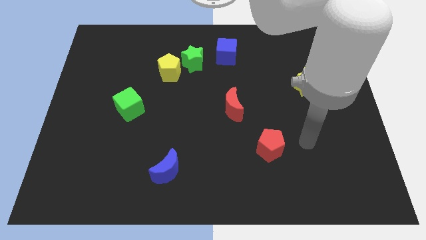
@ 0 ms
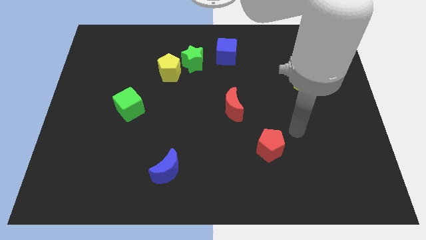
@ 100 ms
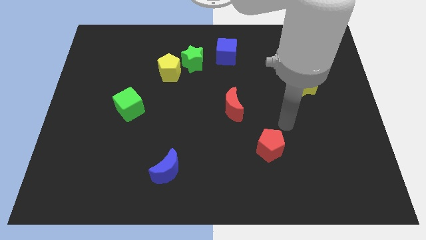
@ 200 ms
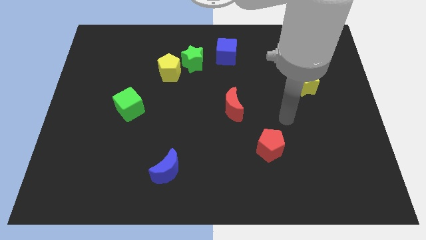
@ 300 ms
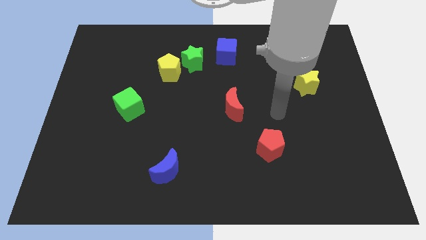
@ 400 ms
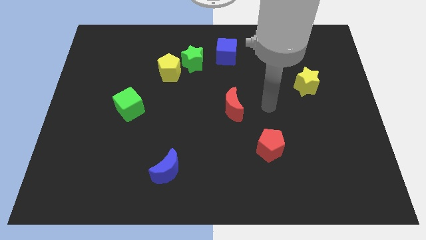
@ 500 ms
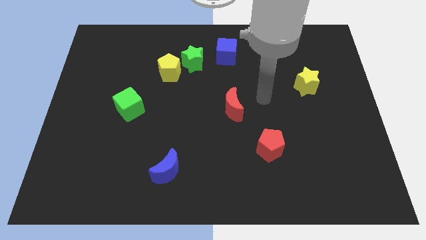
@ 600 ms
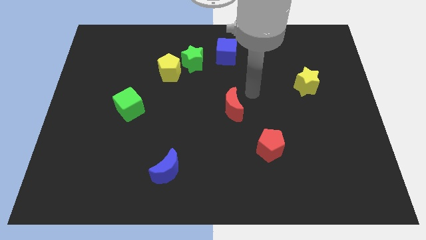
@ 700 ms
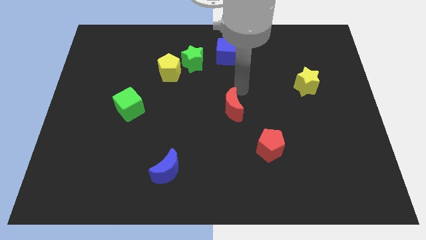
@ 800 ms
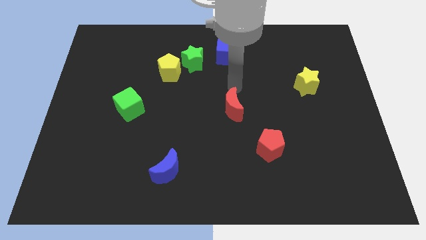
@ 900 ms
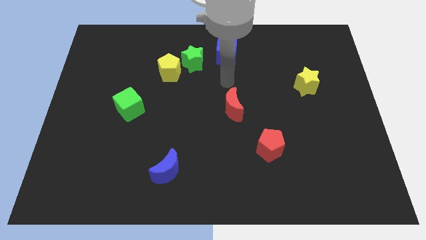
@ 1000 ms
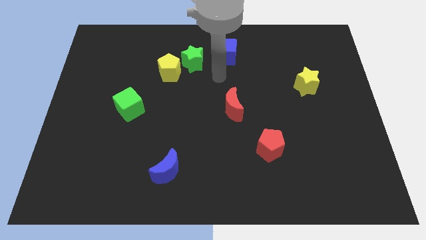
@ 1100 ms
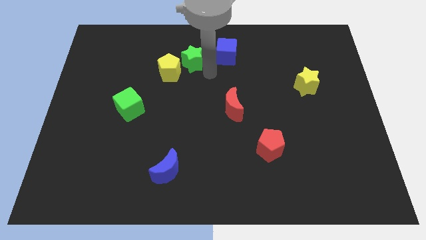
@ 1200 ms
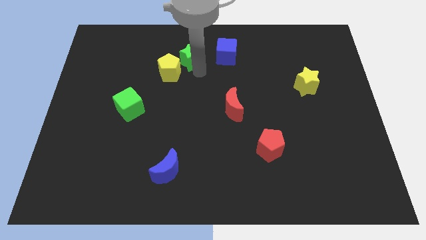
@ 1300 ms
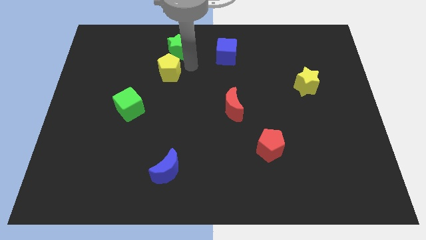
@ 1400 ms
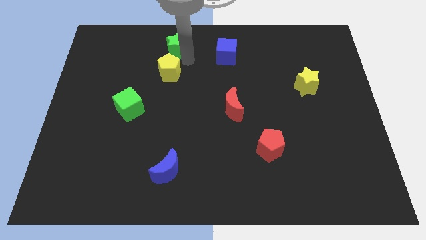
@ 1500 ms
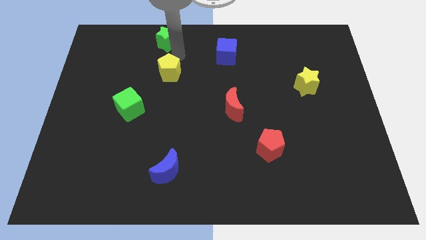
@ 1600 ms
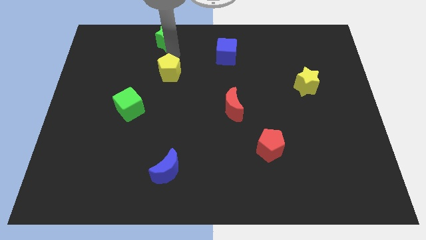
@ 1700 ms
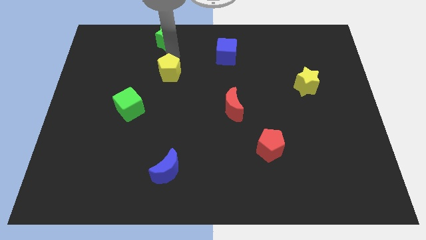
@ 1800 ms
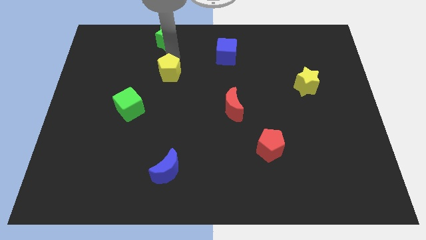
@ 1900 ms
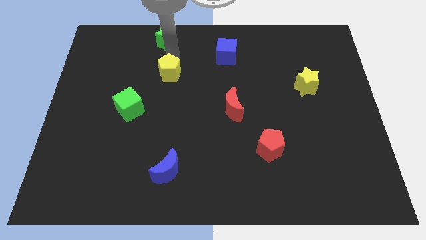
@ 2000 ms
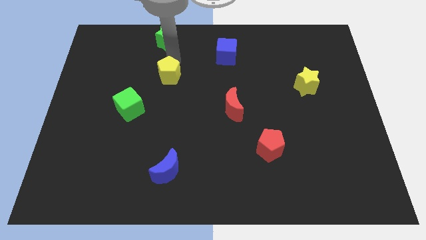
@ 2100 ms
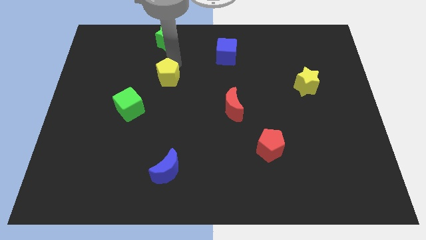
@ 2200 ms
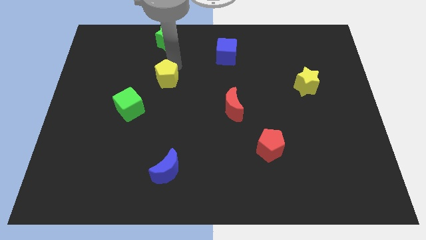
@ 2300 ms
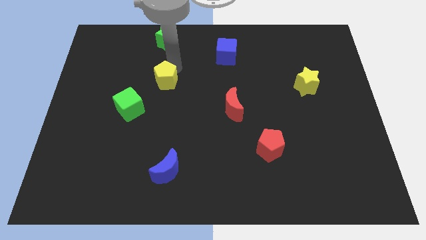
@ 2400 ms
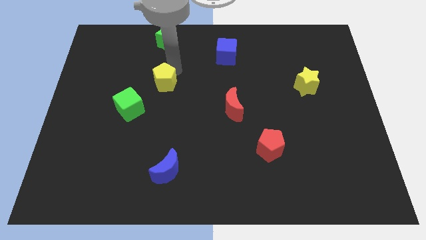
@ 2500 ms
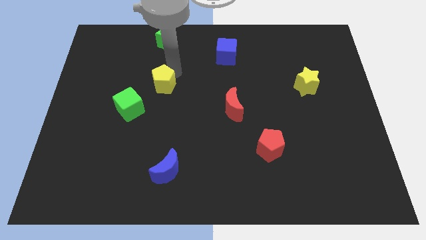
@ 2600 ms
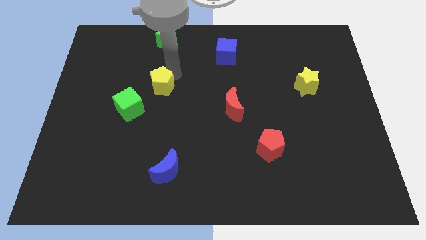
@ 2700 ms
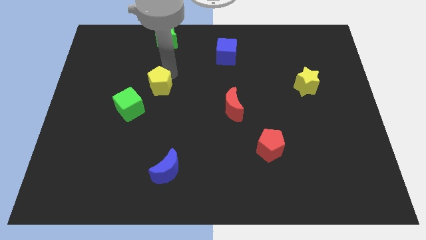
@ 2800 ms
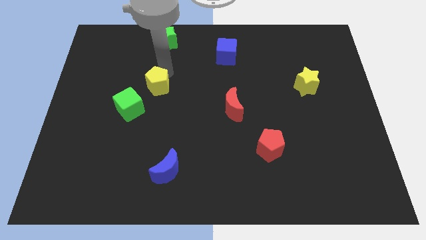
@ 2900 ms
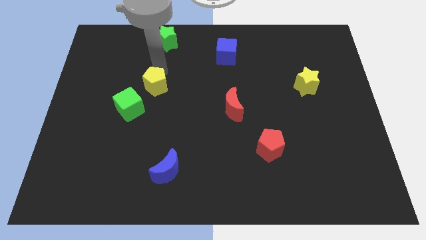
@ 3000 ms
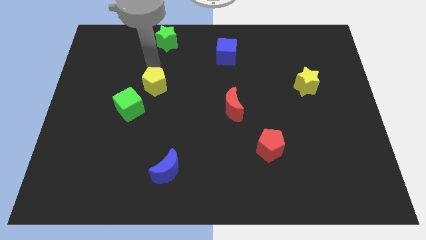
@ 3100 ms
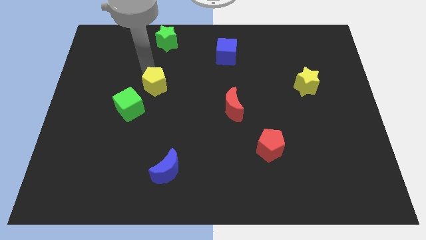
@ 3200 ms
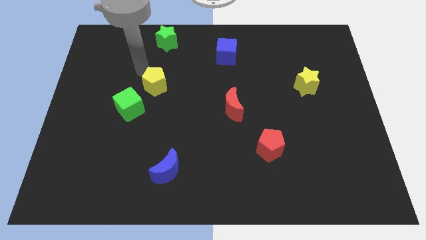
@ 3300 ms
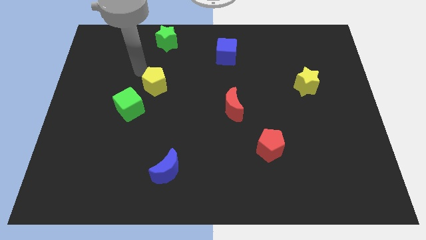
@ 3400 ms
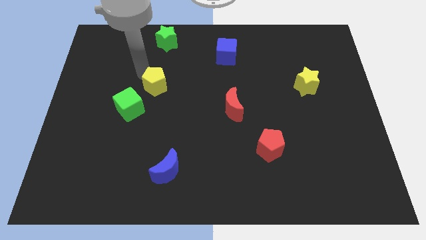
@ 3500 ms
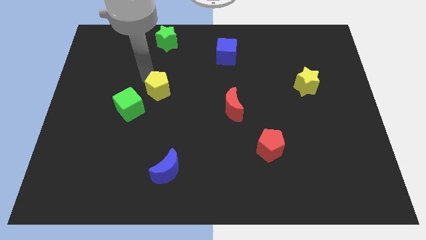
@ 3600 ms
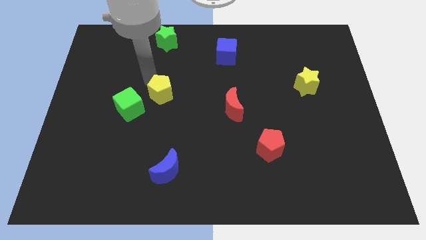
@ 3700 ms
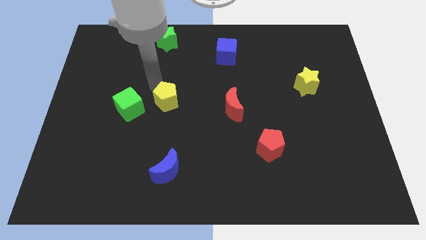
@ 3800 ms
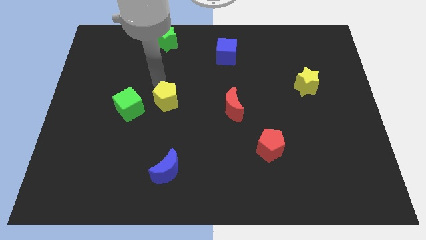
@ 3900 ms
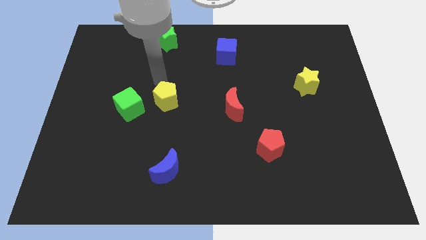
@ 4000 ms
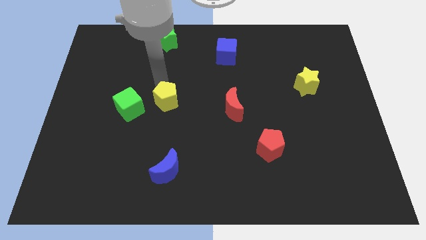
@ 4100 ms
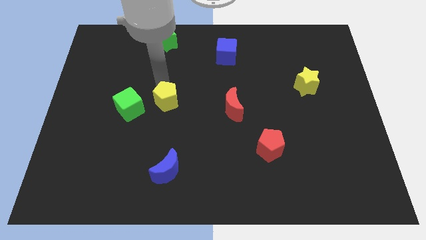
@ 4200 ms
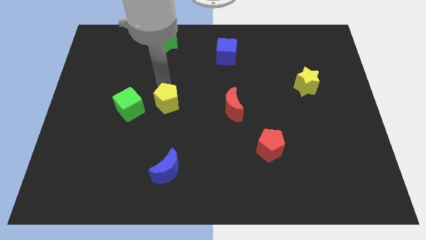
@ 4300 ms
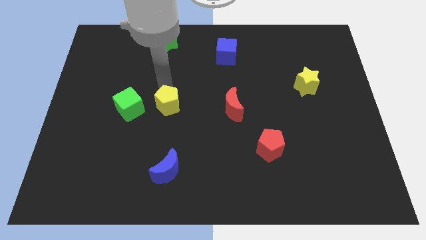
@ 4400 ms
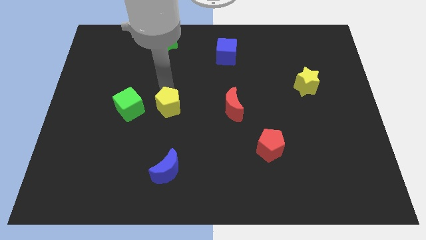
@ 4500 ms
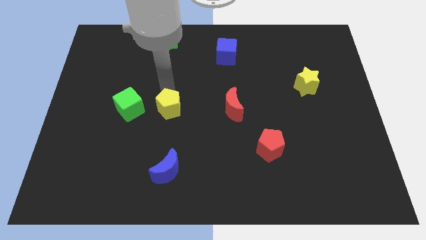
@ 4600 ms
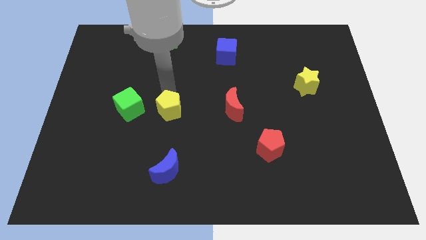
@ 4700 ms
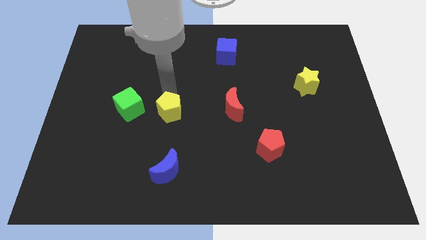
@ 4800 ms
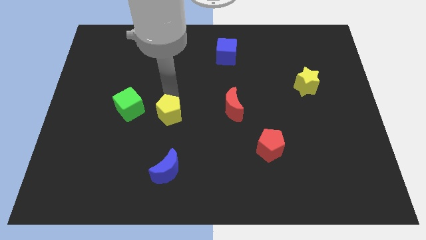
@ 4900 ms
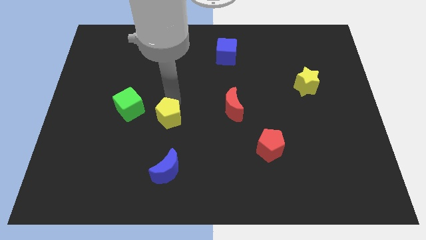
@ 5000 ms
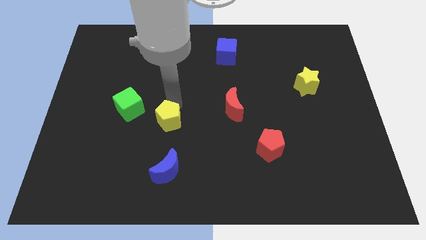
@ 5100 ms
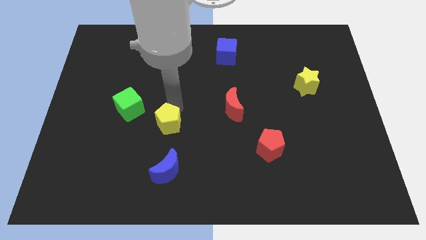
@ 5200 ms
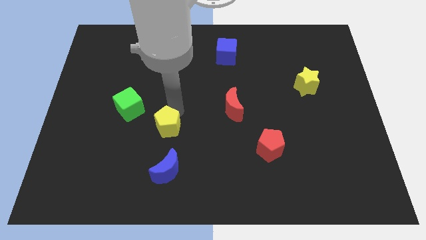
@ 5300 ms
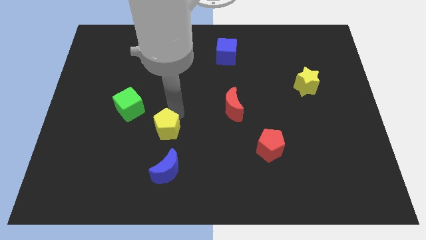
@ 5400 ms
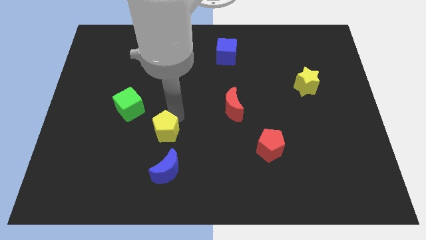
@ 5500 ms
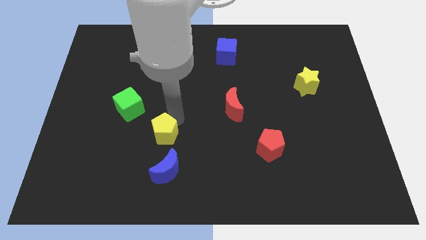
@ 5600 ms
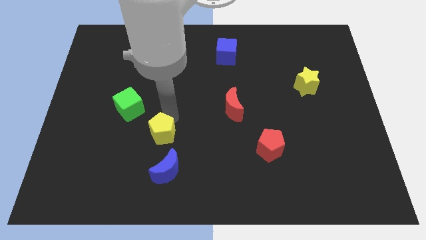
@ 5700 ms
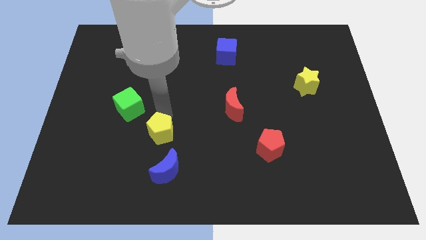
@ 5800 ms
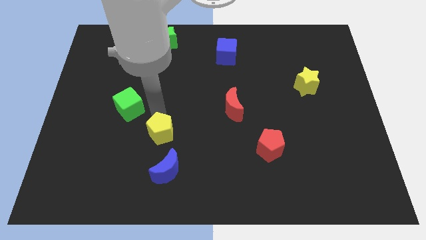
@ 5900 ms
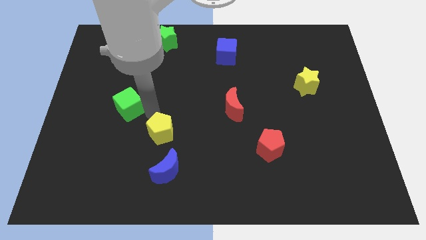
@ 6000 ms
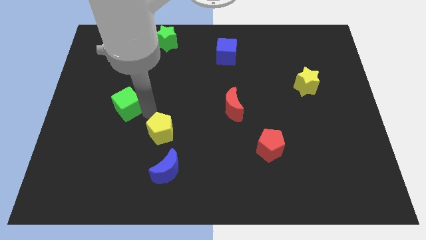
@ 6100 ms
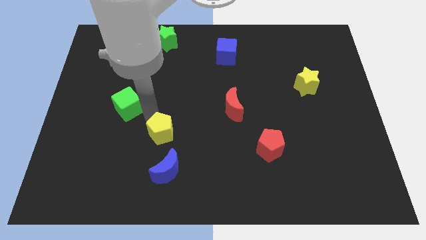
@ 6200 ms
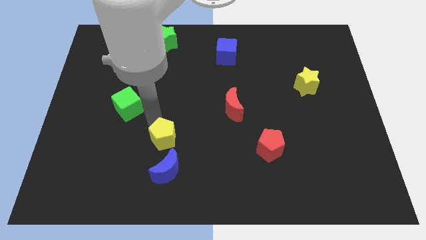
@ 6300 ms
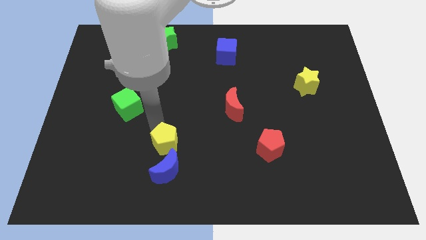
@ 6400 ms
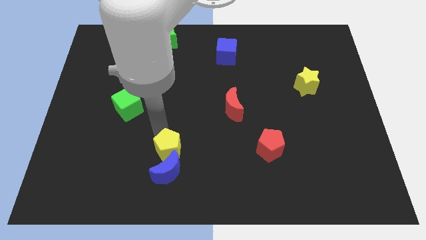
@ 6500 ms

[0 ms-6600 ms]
move the yellow pentagon next to the blue moon

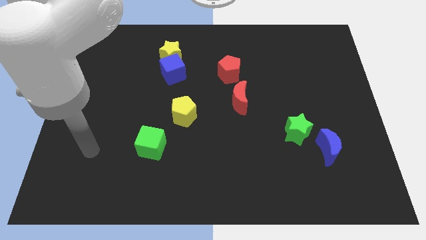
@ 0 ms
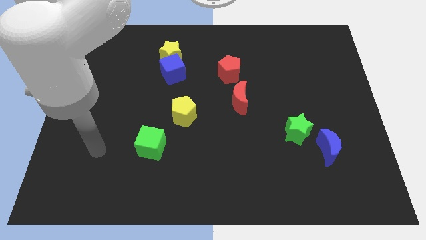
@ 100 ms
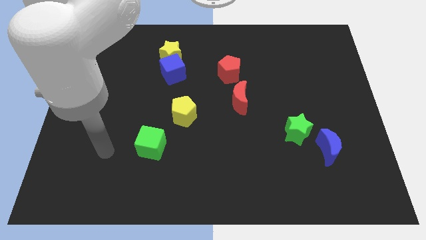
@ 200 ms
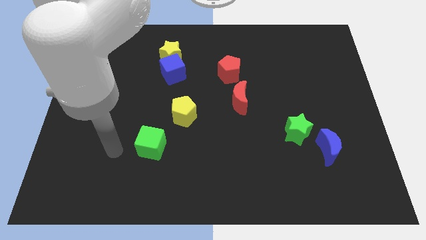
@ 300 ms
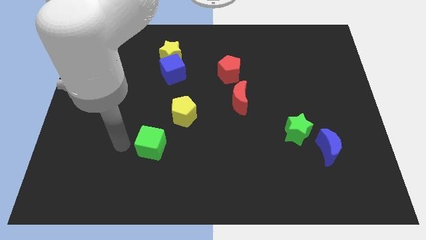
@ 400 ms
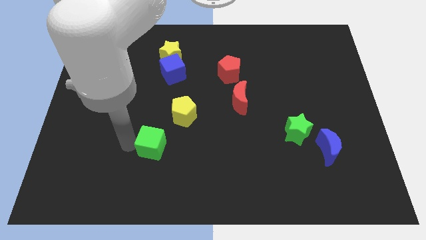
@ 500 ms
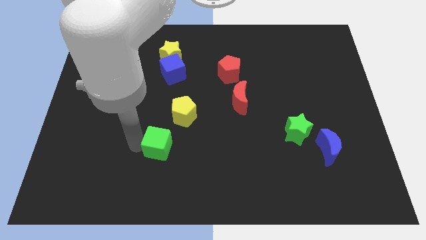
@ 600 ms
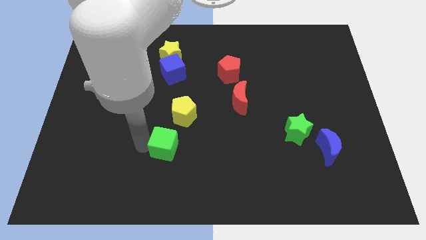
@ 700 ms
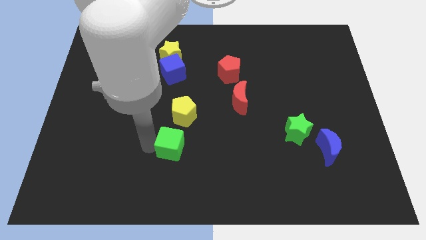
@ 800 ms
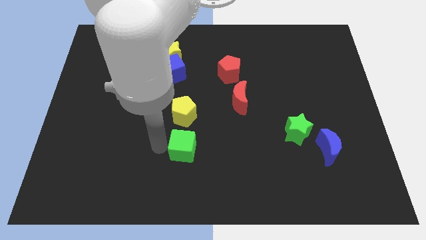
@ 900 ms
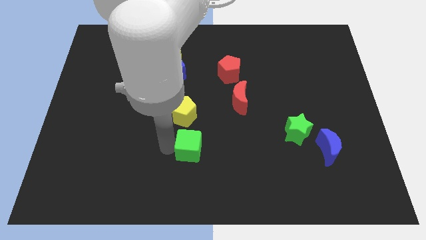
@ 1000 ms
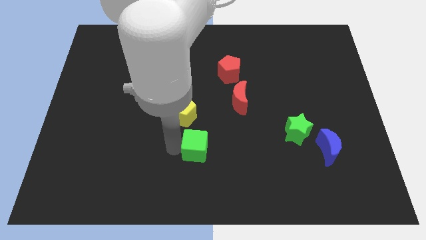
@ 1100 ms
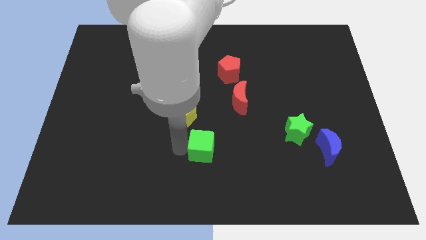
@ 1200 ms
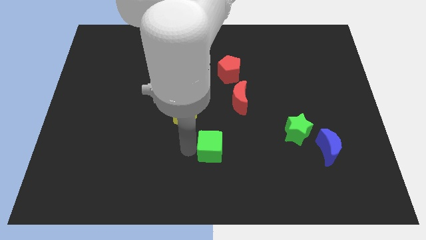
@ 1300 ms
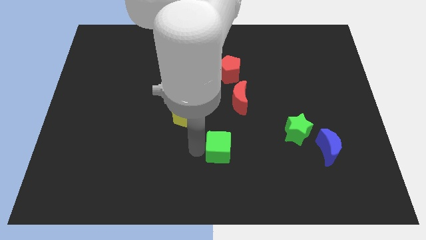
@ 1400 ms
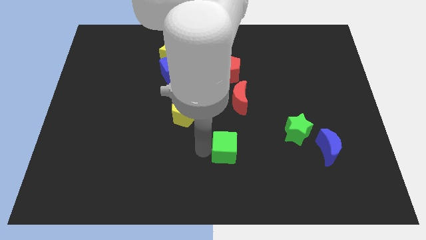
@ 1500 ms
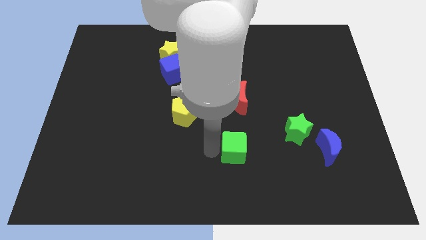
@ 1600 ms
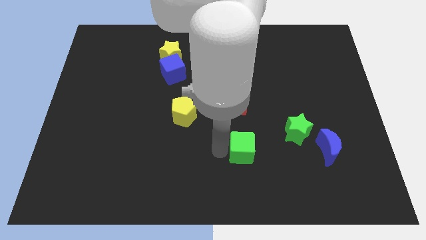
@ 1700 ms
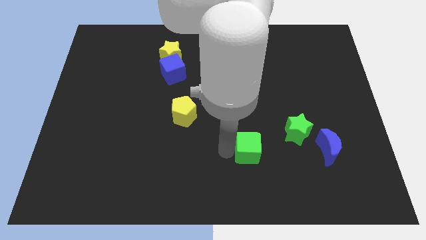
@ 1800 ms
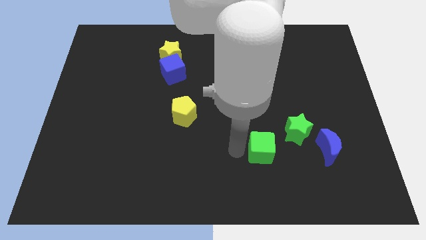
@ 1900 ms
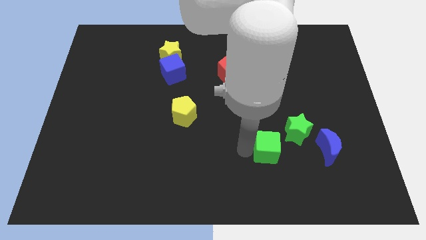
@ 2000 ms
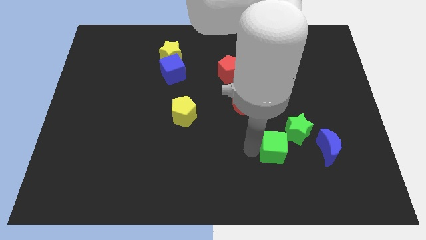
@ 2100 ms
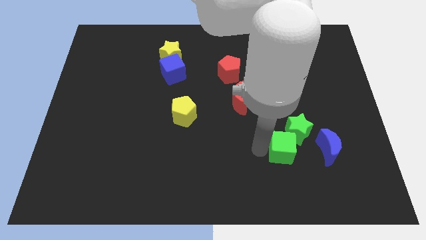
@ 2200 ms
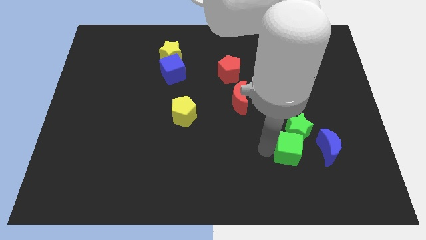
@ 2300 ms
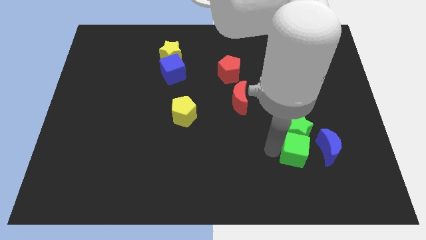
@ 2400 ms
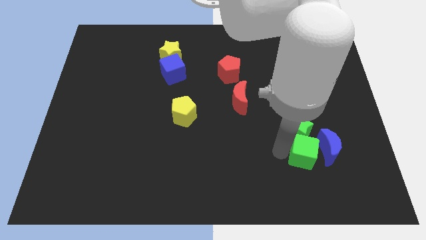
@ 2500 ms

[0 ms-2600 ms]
push the green cube towards the blue moon
